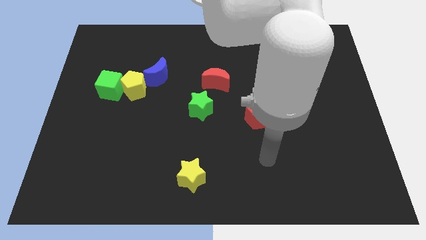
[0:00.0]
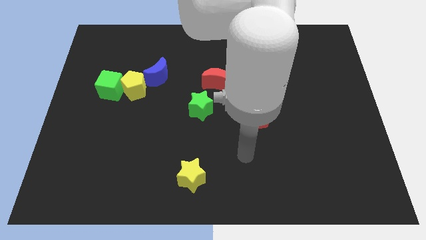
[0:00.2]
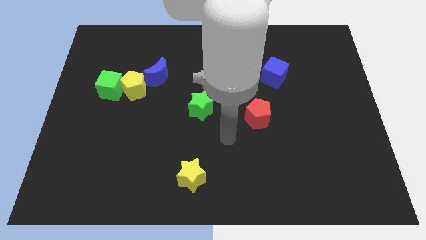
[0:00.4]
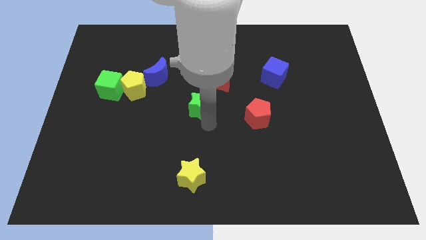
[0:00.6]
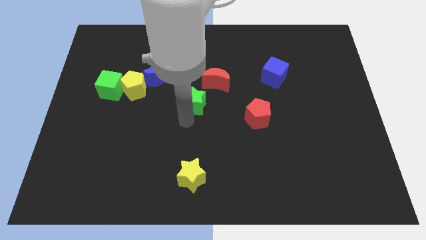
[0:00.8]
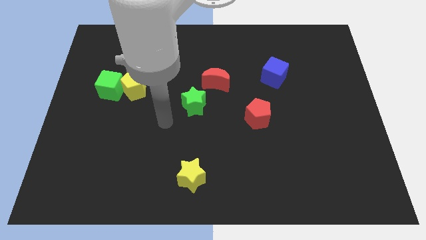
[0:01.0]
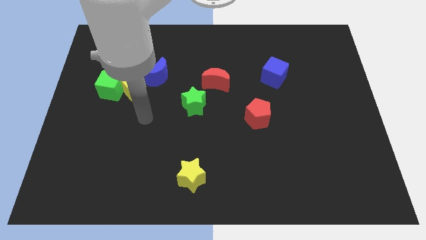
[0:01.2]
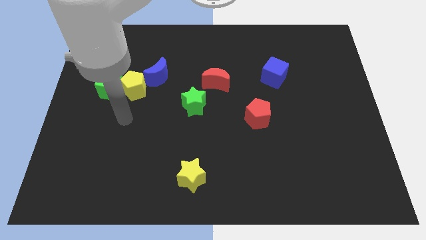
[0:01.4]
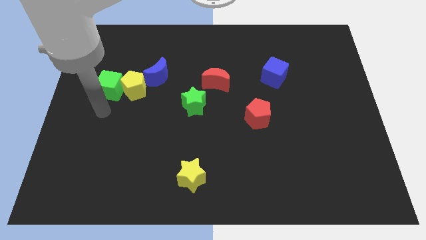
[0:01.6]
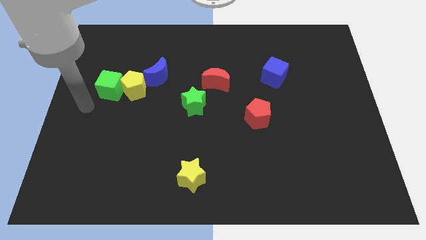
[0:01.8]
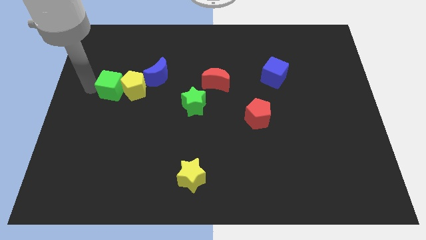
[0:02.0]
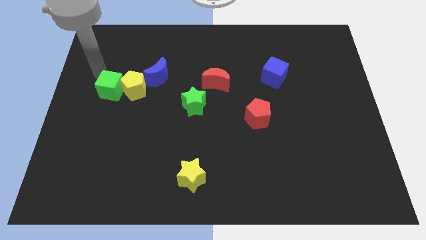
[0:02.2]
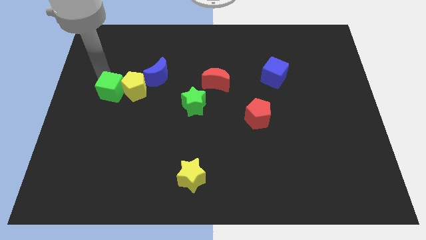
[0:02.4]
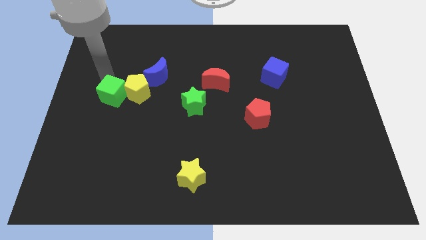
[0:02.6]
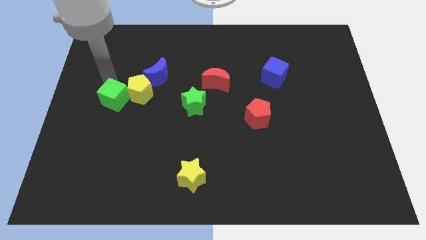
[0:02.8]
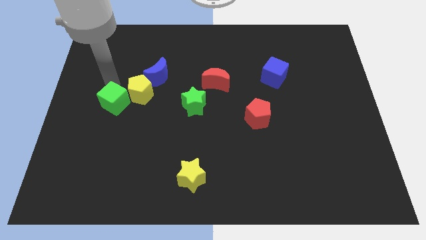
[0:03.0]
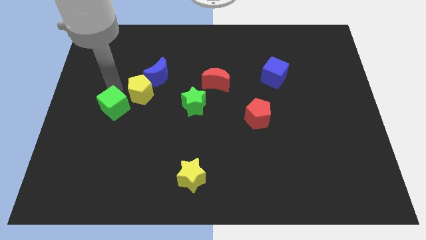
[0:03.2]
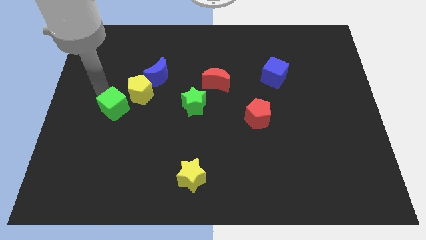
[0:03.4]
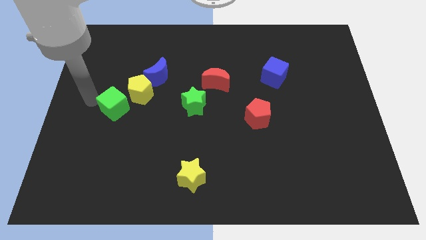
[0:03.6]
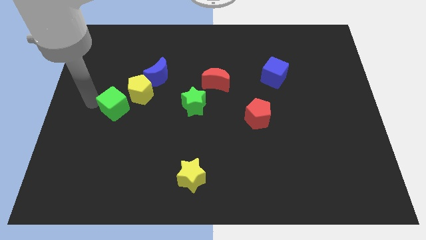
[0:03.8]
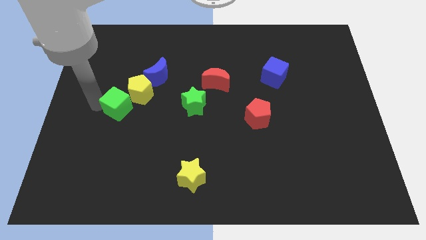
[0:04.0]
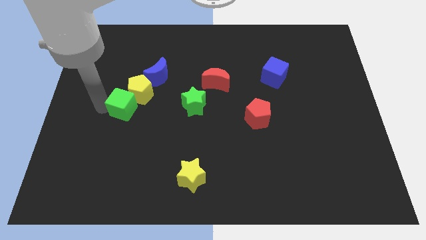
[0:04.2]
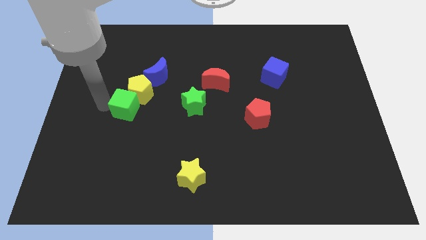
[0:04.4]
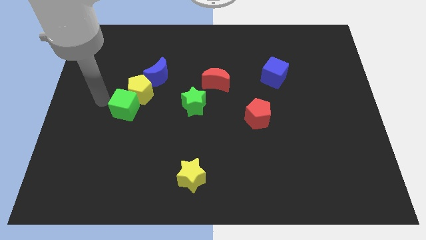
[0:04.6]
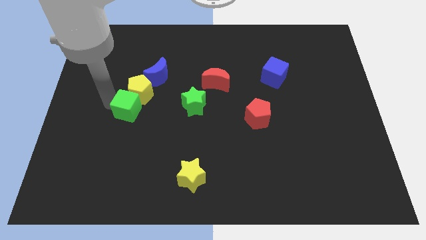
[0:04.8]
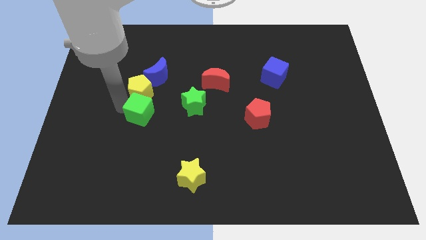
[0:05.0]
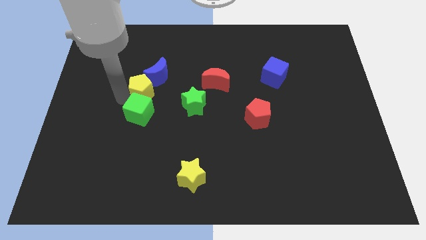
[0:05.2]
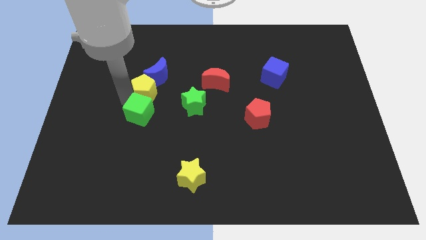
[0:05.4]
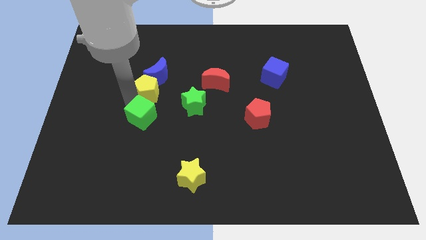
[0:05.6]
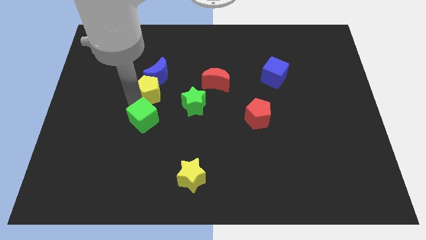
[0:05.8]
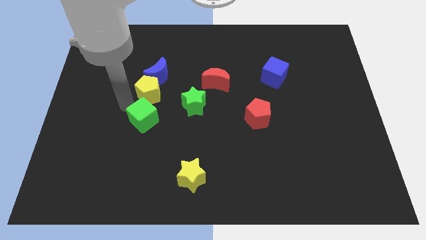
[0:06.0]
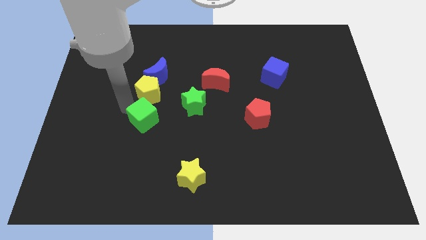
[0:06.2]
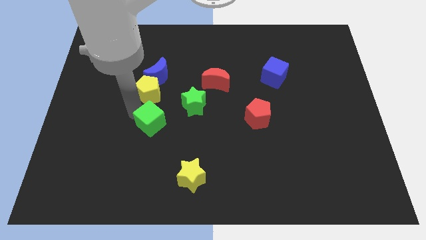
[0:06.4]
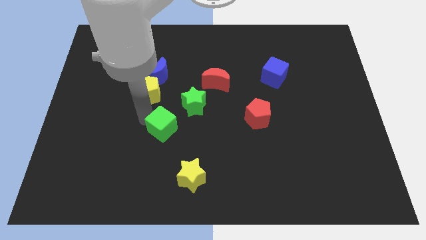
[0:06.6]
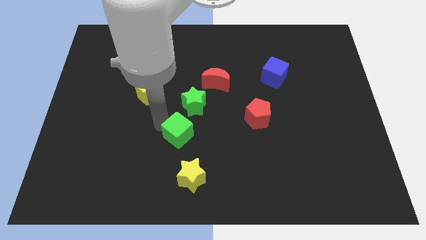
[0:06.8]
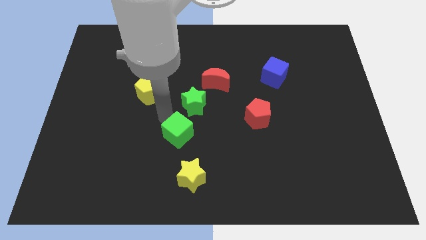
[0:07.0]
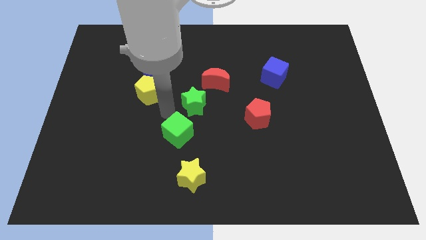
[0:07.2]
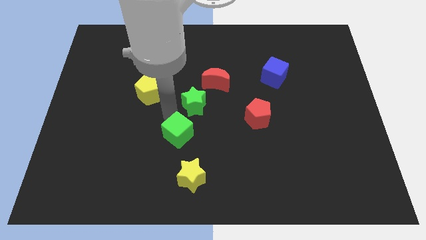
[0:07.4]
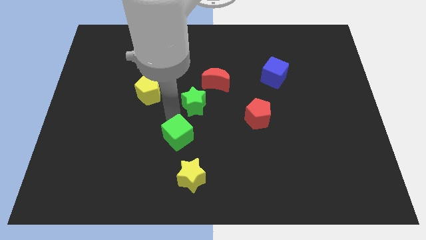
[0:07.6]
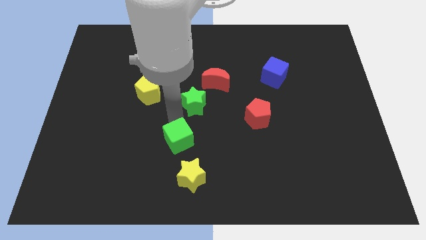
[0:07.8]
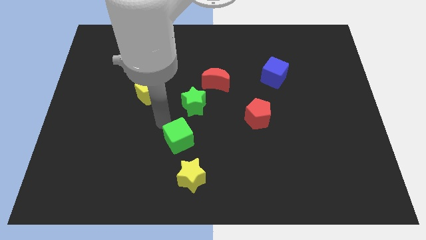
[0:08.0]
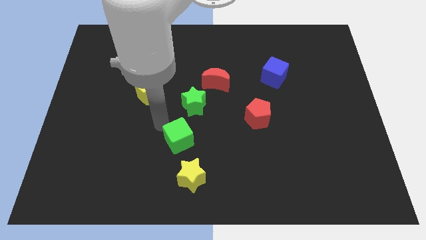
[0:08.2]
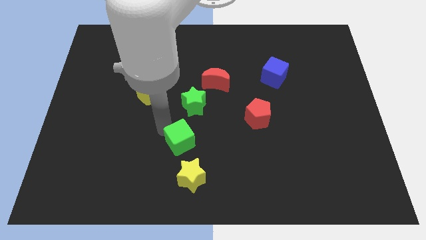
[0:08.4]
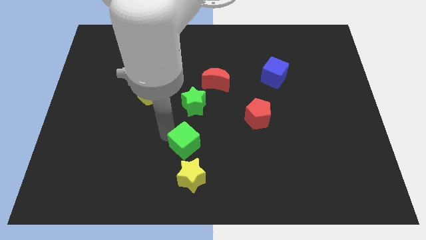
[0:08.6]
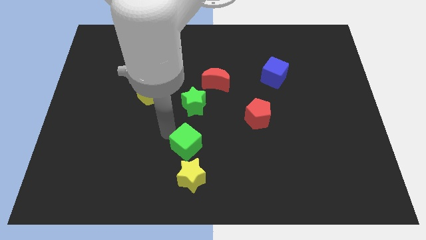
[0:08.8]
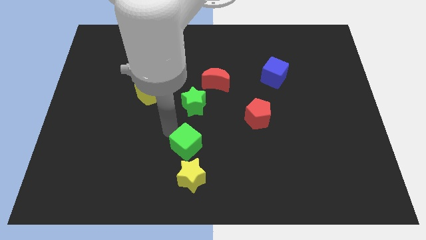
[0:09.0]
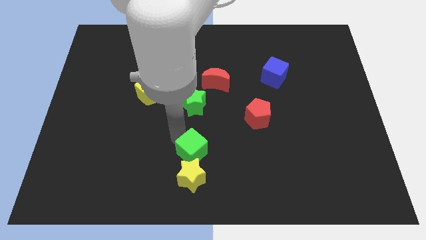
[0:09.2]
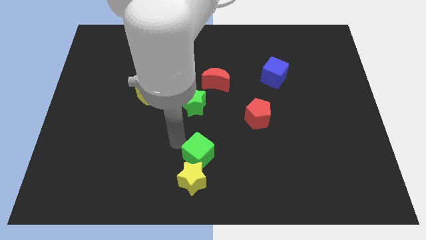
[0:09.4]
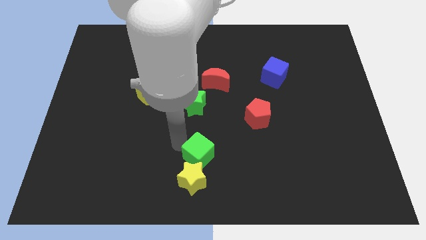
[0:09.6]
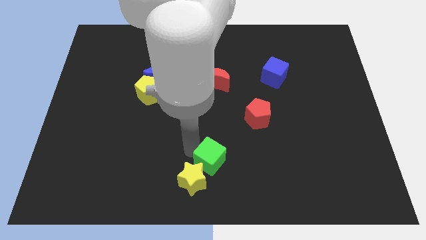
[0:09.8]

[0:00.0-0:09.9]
put the green cube right of the yellow star

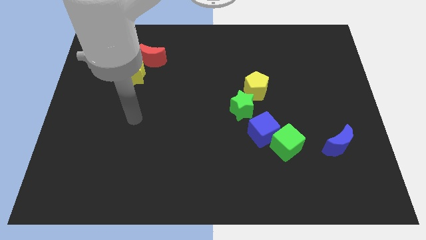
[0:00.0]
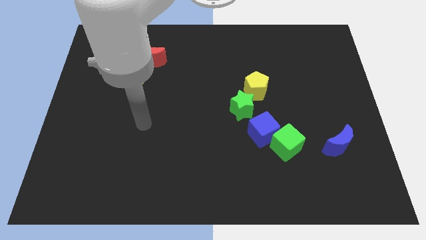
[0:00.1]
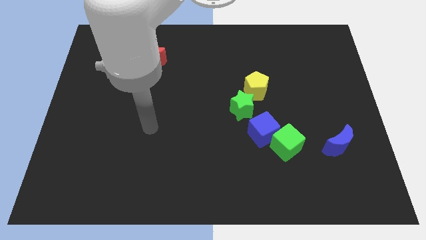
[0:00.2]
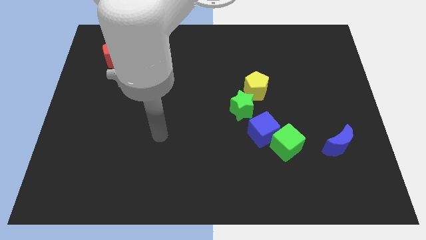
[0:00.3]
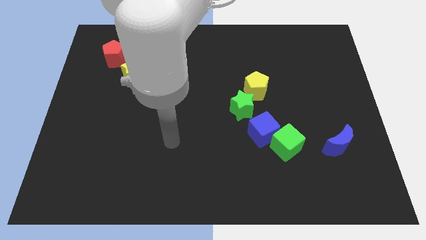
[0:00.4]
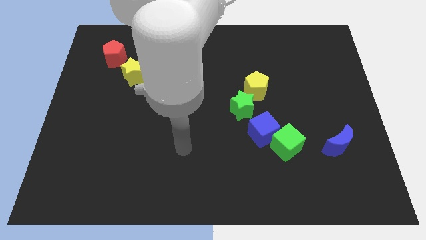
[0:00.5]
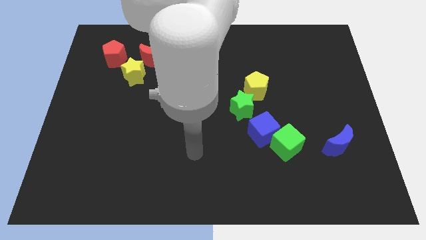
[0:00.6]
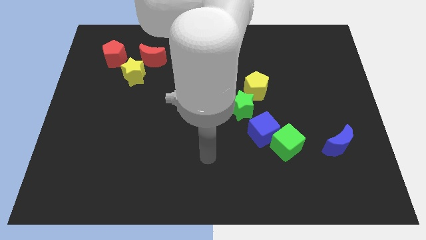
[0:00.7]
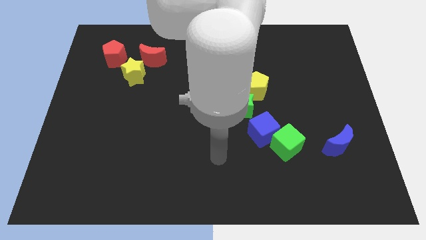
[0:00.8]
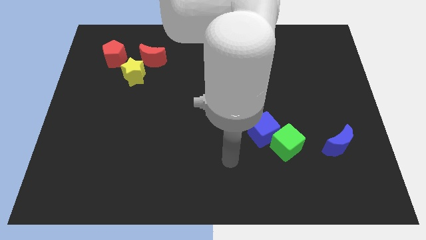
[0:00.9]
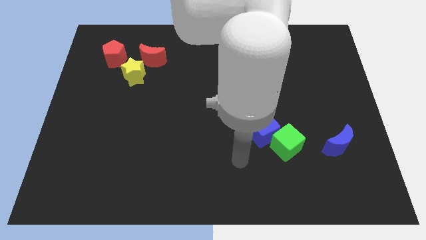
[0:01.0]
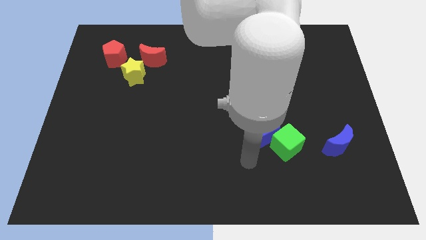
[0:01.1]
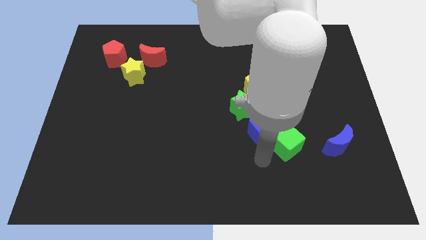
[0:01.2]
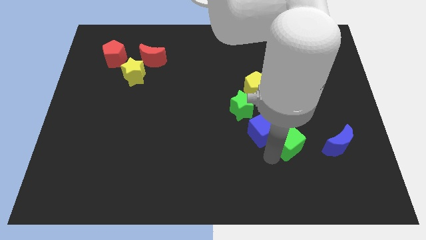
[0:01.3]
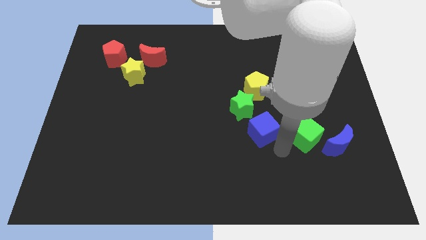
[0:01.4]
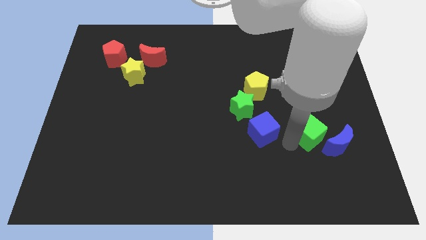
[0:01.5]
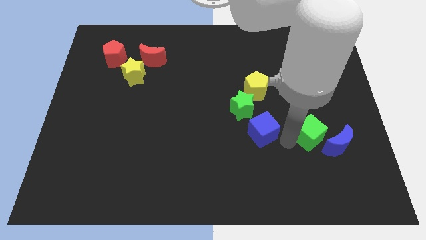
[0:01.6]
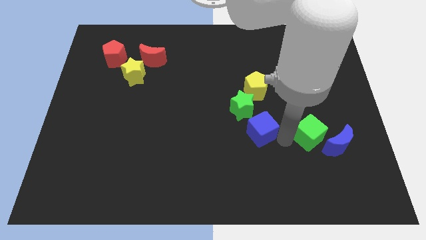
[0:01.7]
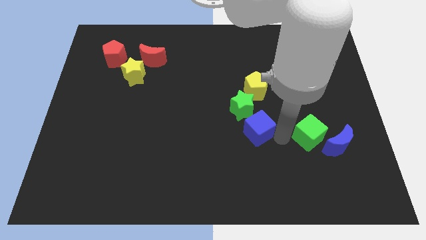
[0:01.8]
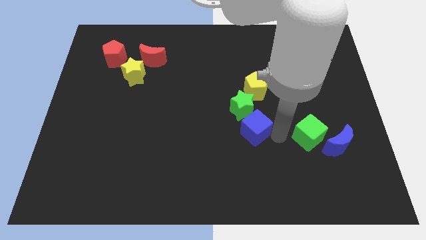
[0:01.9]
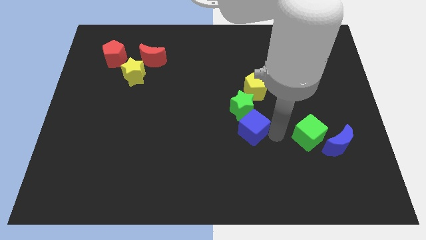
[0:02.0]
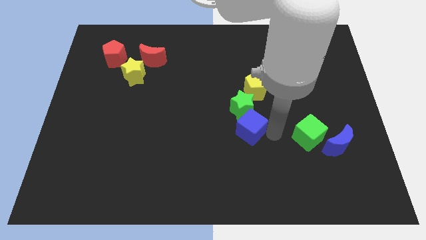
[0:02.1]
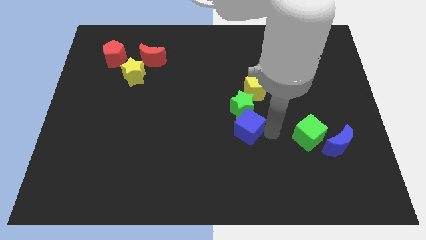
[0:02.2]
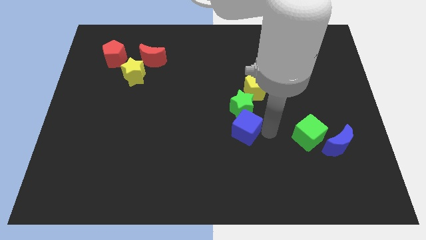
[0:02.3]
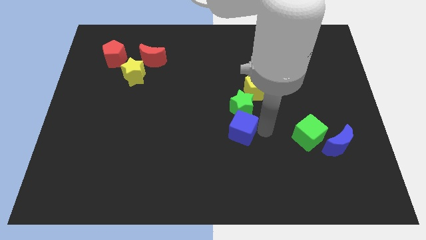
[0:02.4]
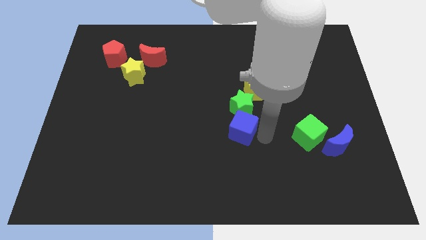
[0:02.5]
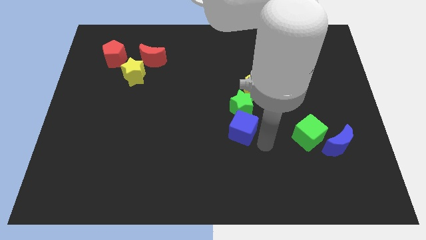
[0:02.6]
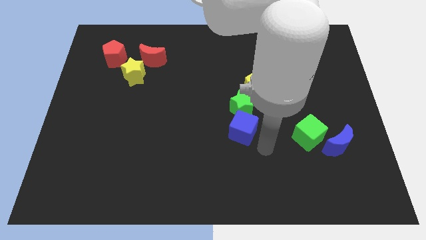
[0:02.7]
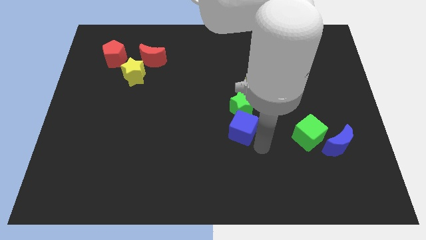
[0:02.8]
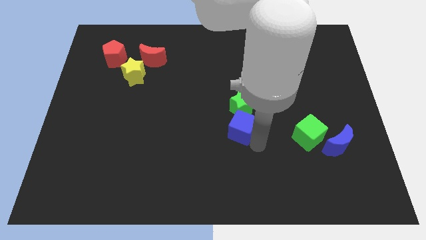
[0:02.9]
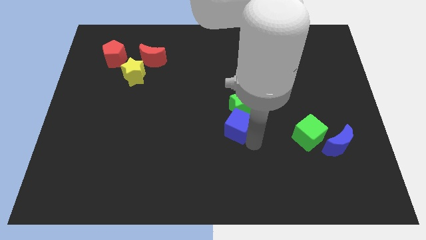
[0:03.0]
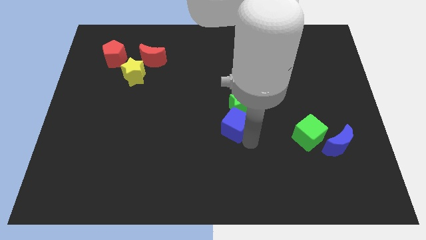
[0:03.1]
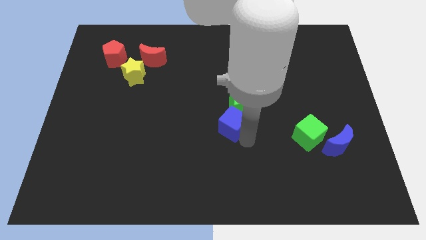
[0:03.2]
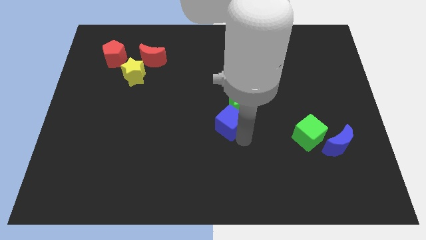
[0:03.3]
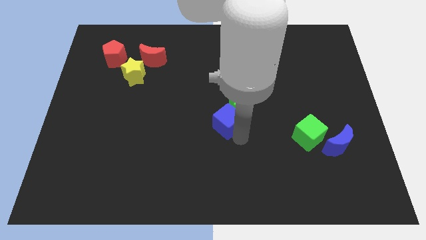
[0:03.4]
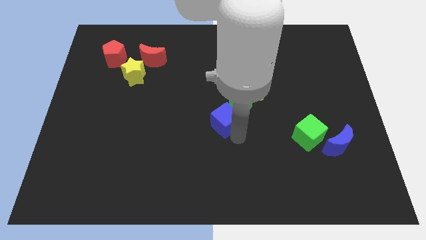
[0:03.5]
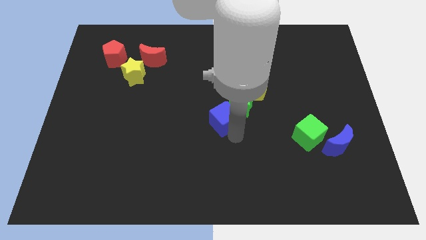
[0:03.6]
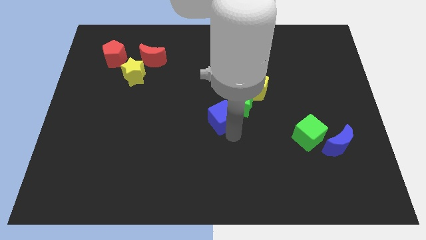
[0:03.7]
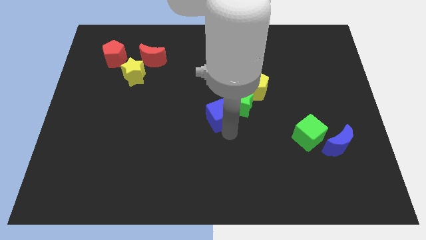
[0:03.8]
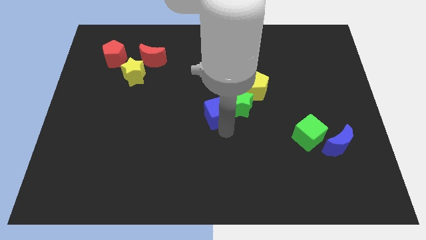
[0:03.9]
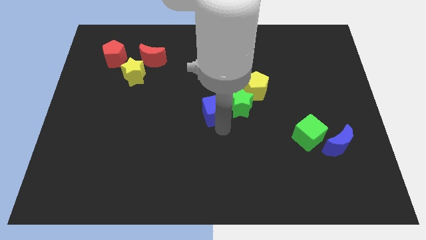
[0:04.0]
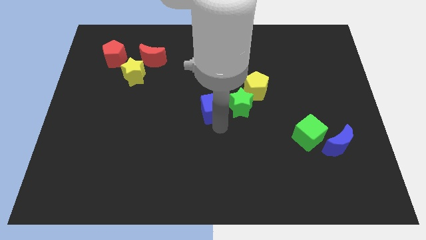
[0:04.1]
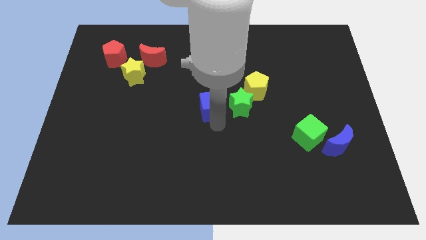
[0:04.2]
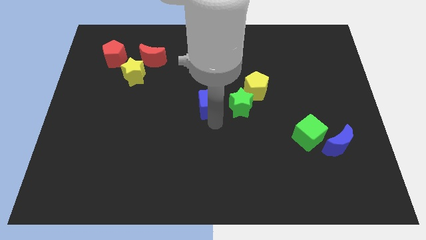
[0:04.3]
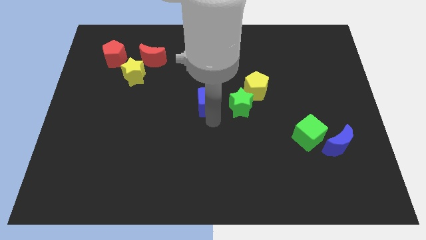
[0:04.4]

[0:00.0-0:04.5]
slide the blue cube to the left of the yellow pentagon
